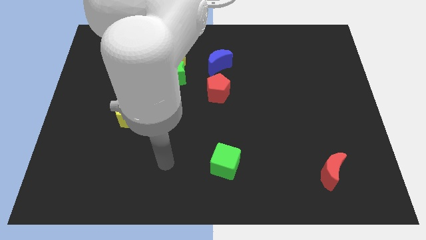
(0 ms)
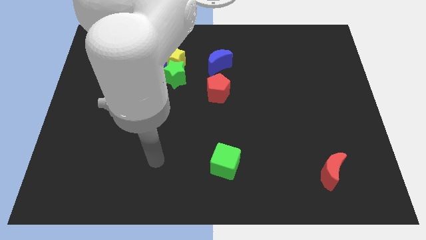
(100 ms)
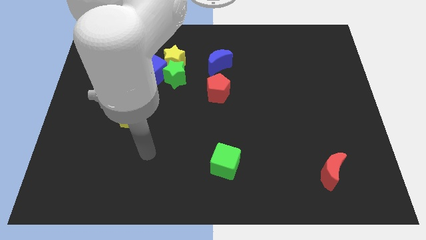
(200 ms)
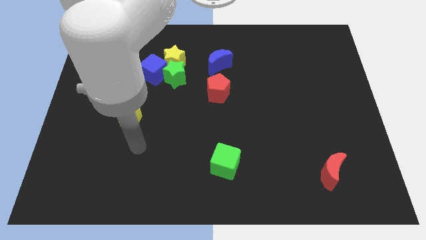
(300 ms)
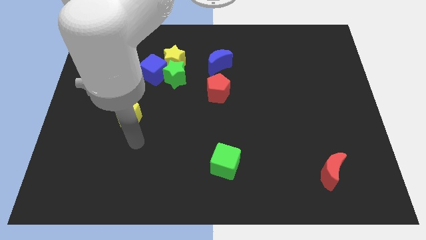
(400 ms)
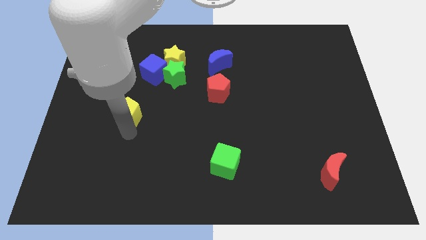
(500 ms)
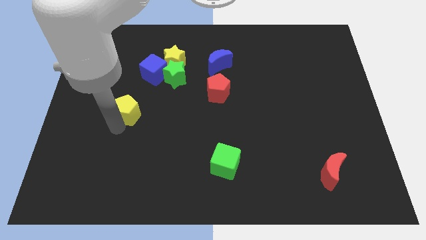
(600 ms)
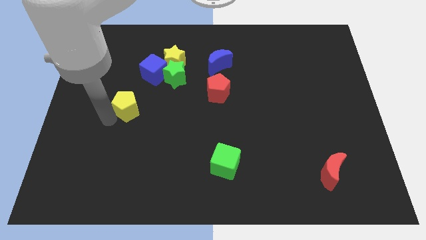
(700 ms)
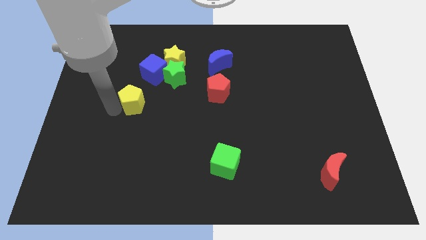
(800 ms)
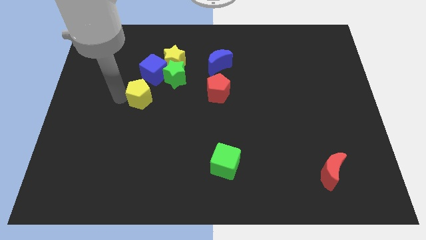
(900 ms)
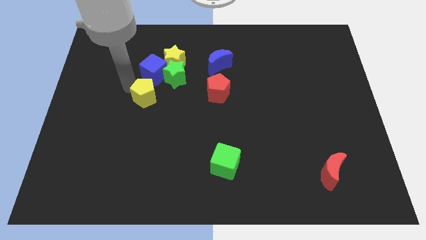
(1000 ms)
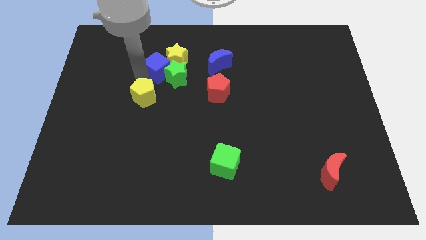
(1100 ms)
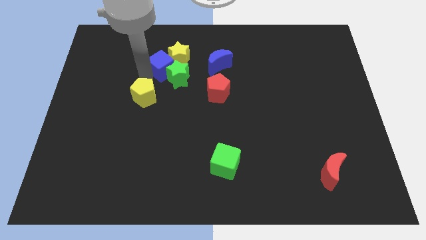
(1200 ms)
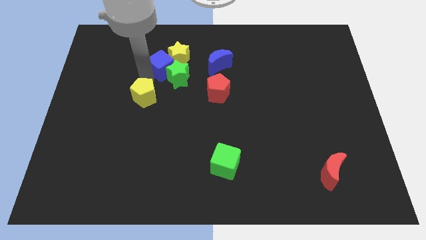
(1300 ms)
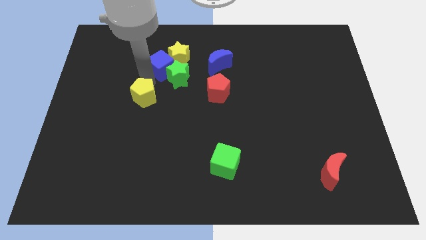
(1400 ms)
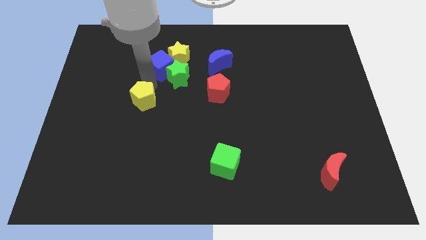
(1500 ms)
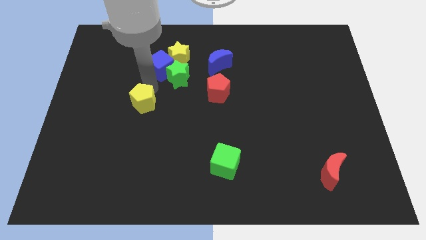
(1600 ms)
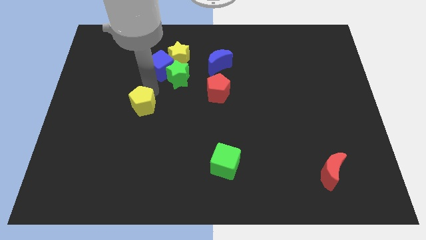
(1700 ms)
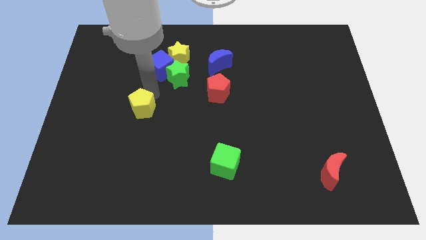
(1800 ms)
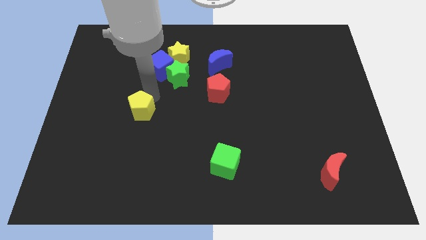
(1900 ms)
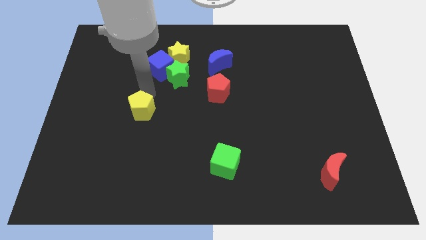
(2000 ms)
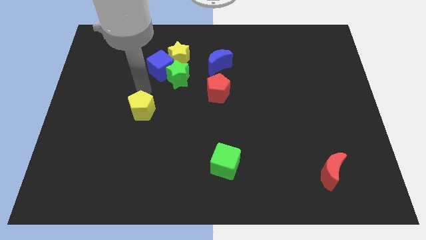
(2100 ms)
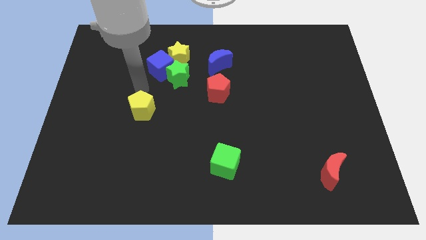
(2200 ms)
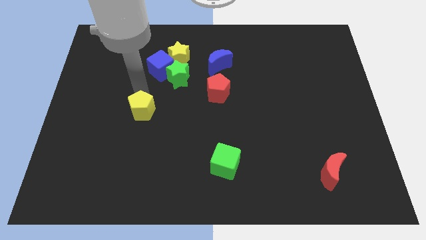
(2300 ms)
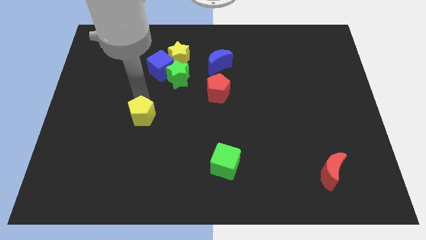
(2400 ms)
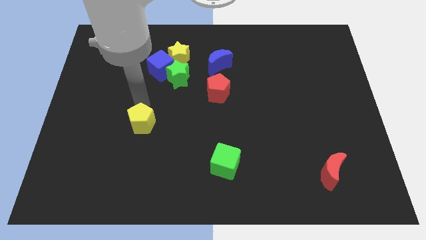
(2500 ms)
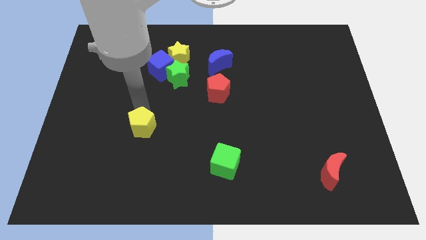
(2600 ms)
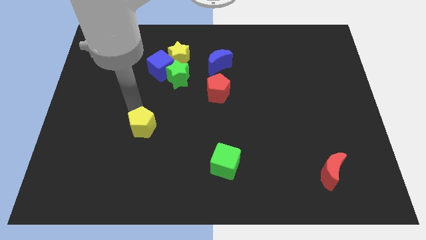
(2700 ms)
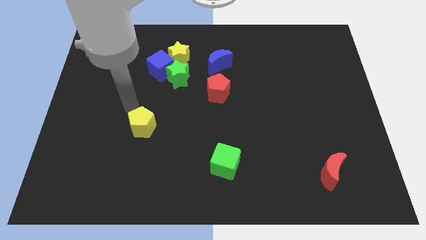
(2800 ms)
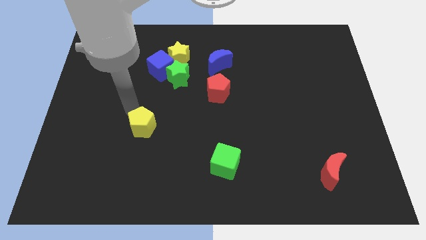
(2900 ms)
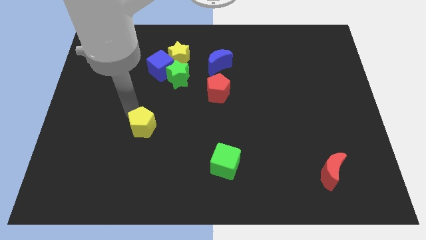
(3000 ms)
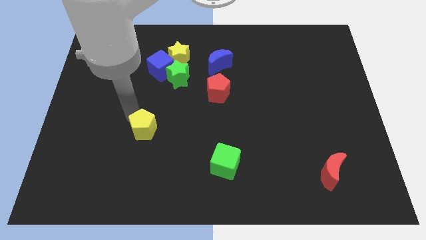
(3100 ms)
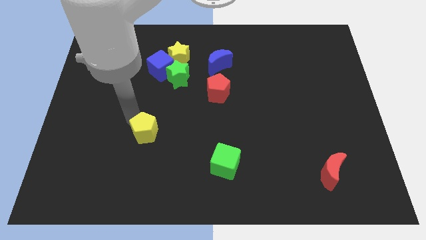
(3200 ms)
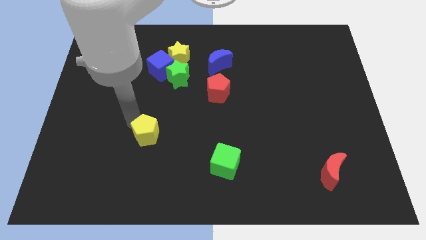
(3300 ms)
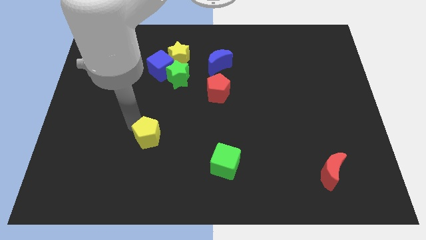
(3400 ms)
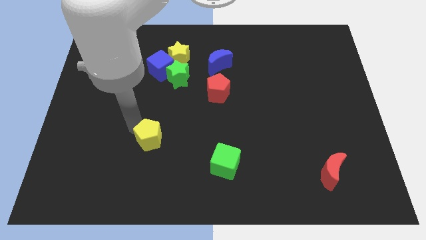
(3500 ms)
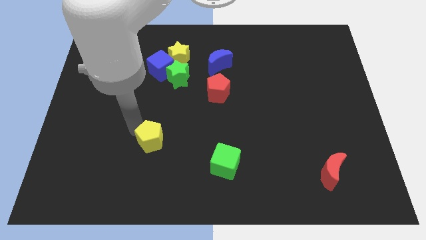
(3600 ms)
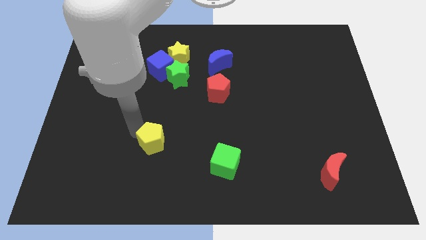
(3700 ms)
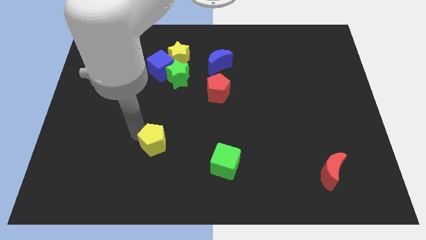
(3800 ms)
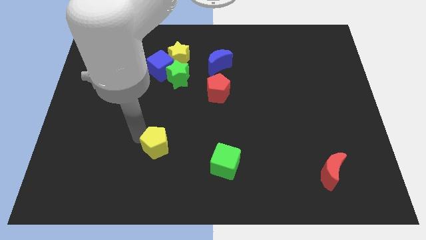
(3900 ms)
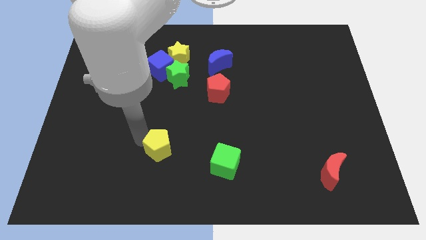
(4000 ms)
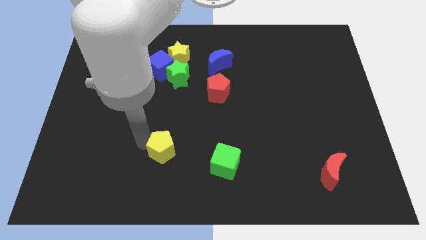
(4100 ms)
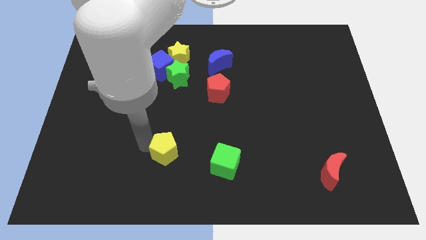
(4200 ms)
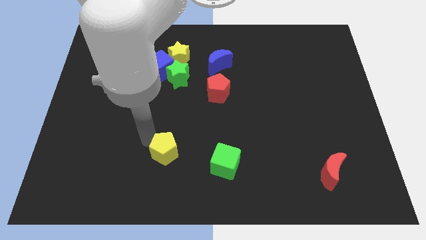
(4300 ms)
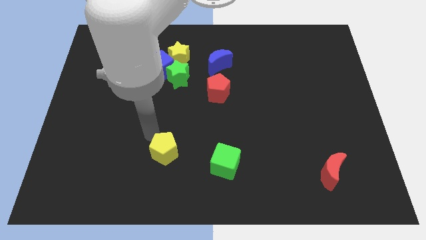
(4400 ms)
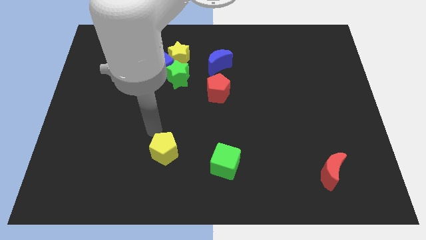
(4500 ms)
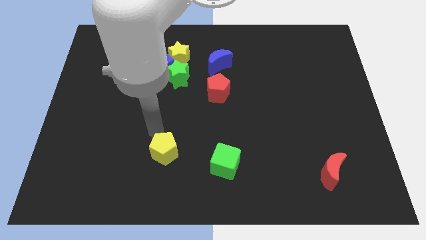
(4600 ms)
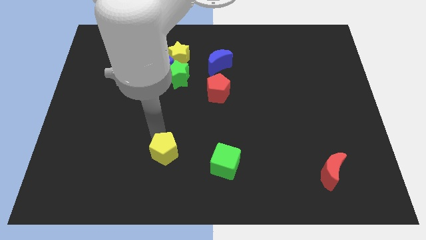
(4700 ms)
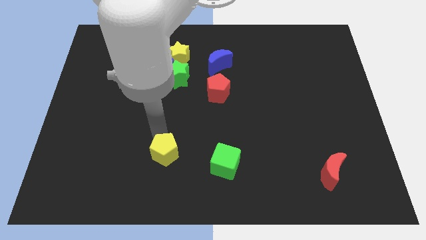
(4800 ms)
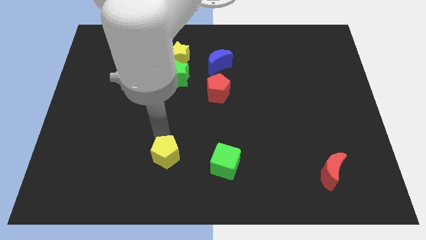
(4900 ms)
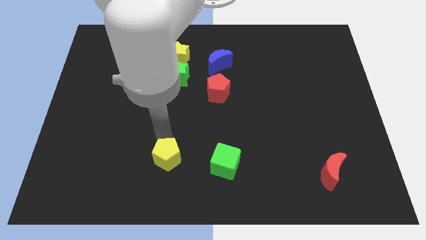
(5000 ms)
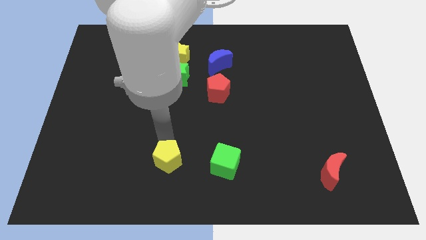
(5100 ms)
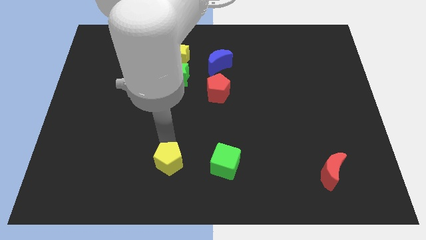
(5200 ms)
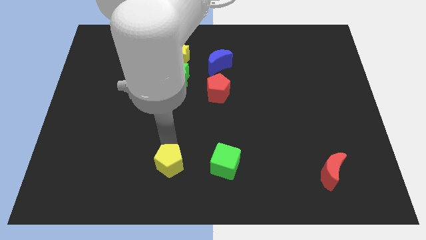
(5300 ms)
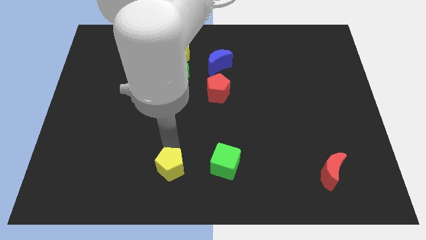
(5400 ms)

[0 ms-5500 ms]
put the yellow pentagon to the bottom
